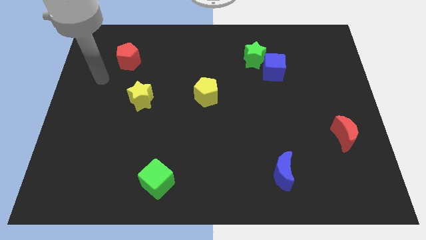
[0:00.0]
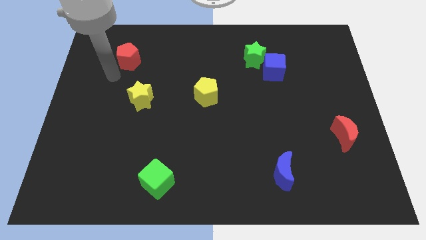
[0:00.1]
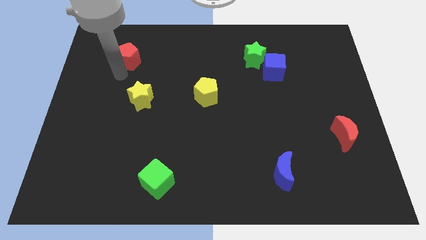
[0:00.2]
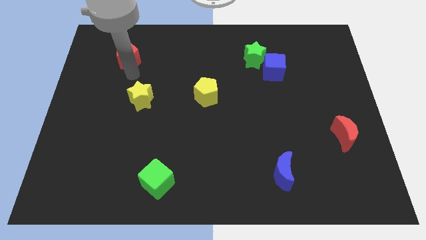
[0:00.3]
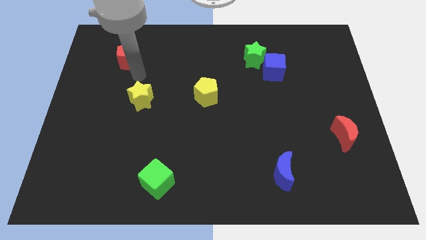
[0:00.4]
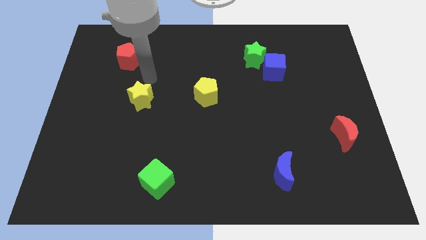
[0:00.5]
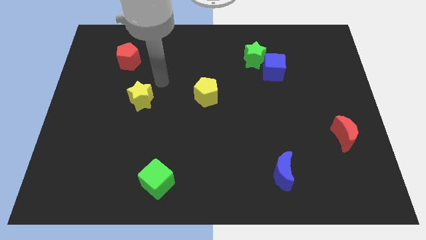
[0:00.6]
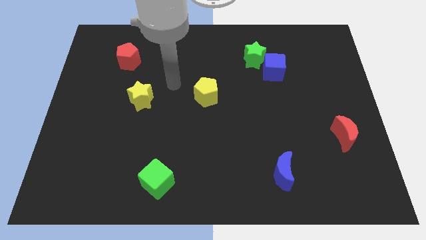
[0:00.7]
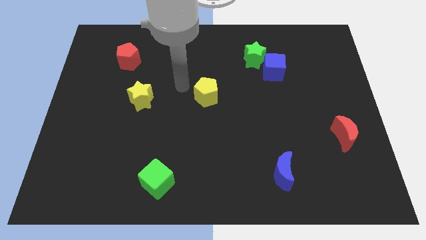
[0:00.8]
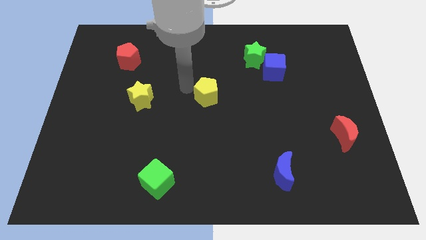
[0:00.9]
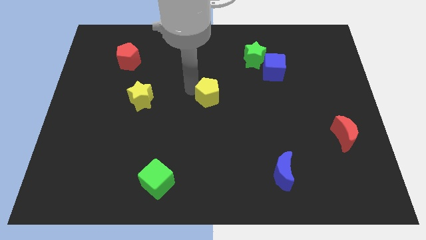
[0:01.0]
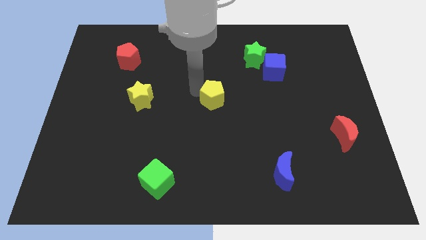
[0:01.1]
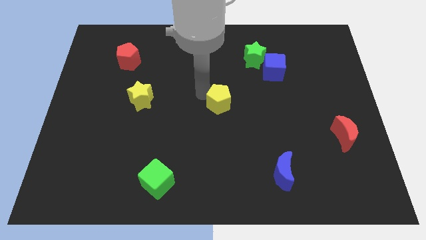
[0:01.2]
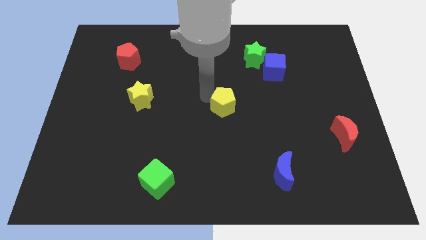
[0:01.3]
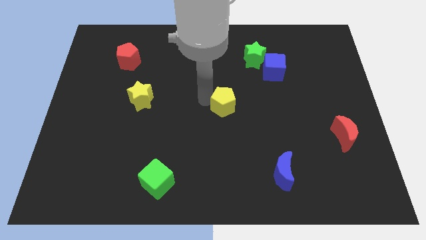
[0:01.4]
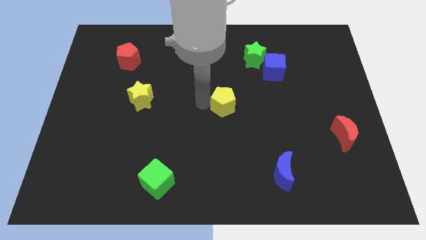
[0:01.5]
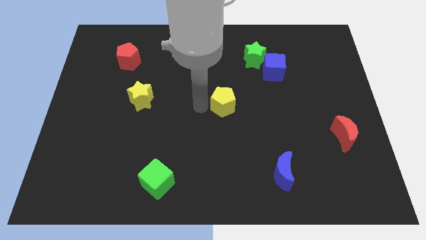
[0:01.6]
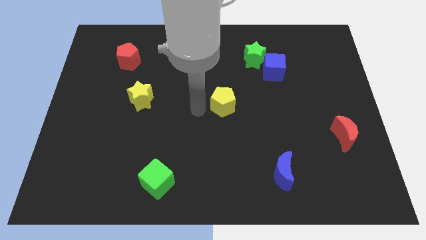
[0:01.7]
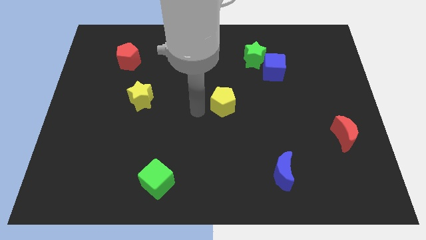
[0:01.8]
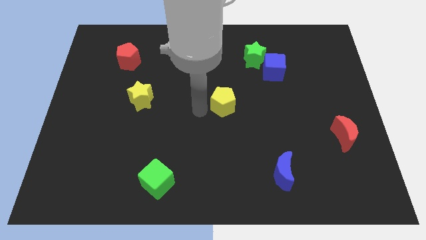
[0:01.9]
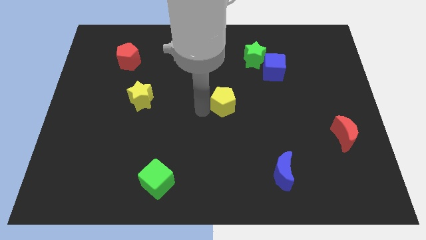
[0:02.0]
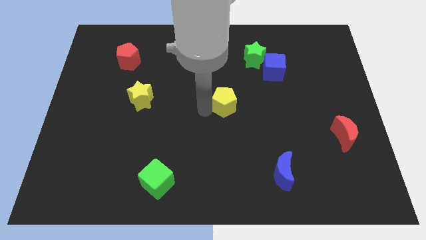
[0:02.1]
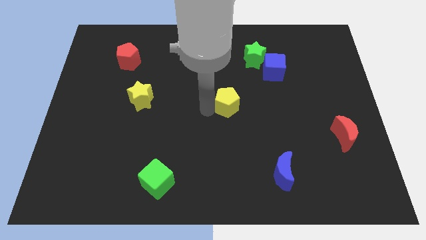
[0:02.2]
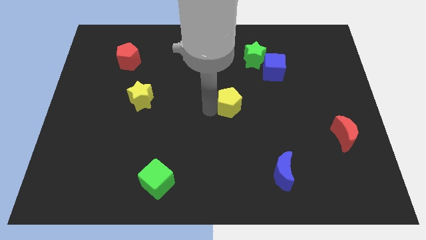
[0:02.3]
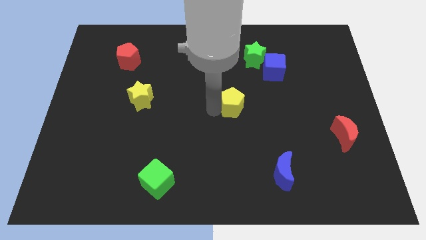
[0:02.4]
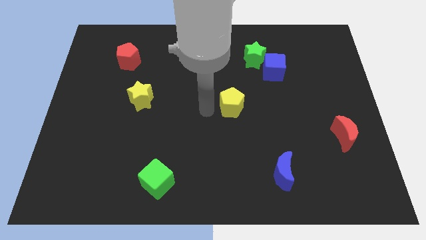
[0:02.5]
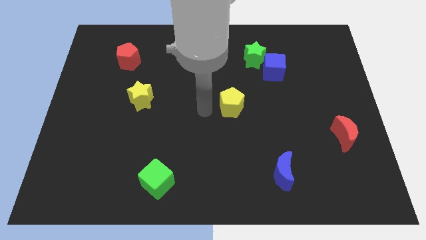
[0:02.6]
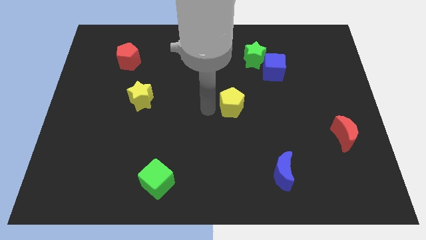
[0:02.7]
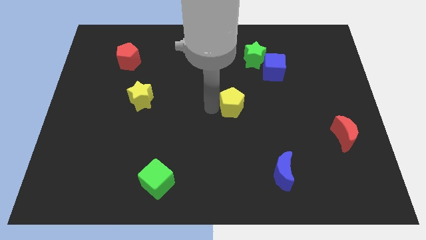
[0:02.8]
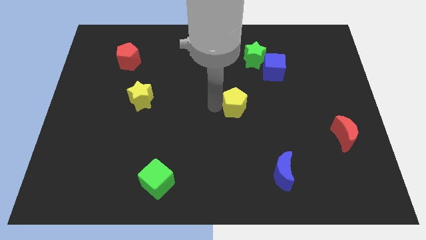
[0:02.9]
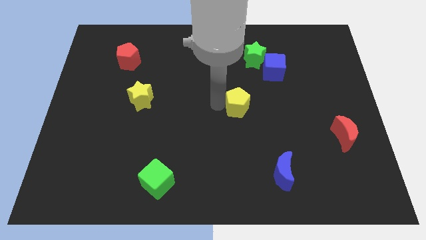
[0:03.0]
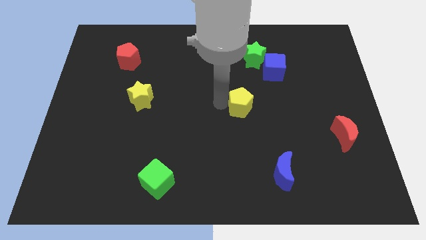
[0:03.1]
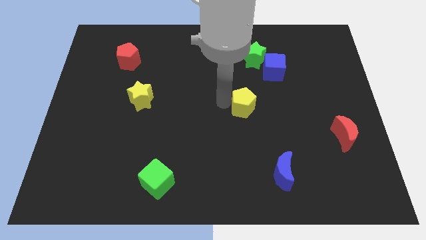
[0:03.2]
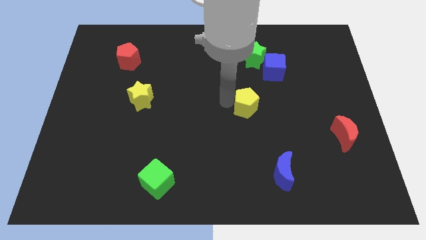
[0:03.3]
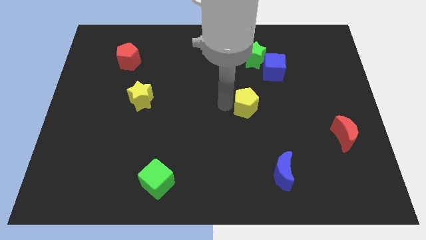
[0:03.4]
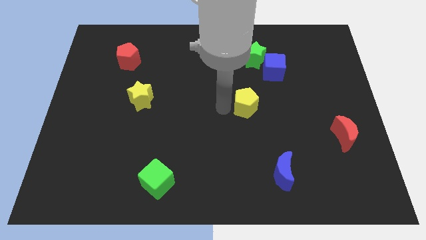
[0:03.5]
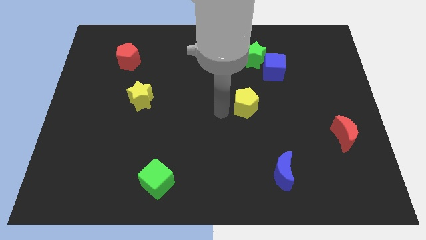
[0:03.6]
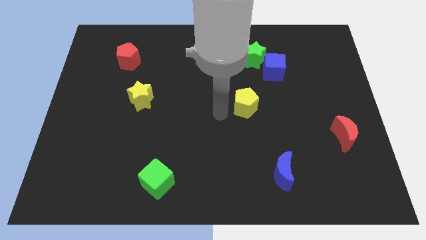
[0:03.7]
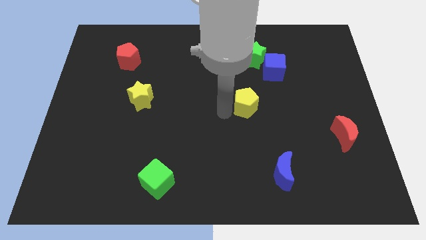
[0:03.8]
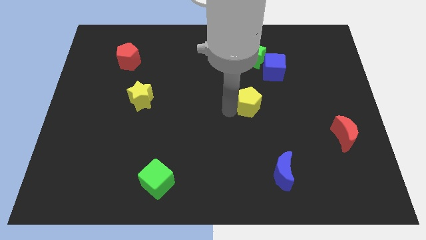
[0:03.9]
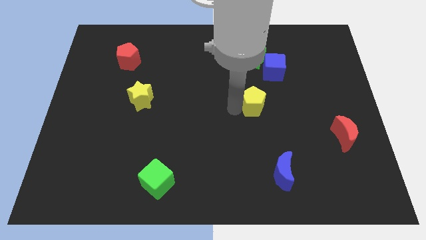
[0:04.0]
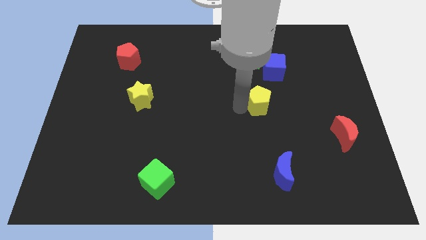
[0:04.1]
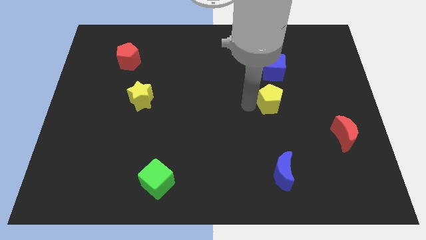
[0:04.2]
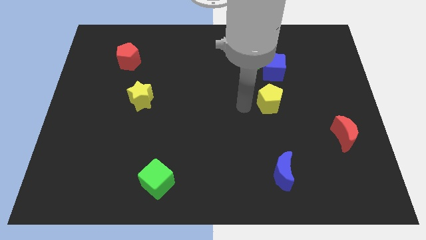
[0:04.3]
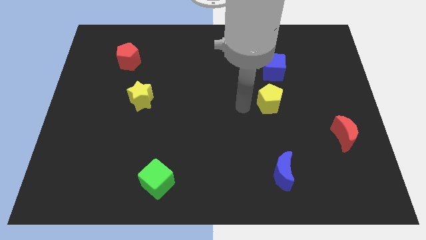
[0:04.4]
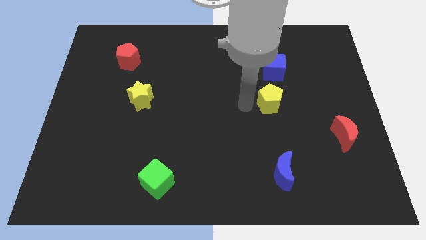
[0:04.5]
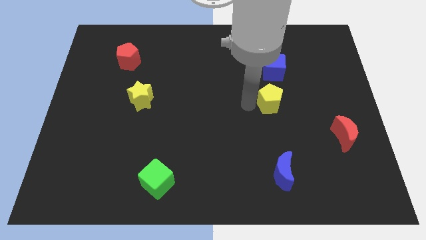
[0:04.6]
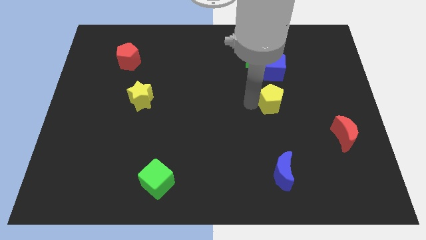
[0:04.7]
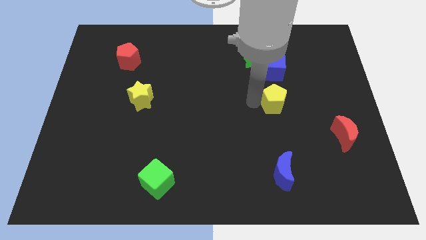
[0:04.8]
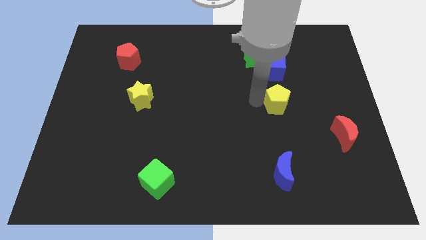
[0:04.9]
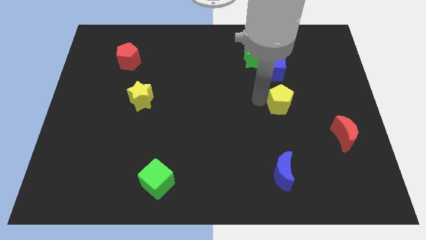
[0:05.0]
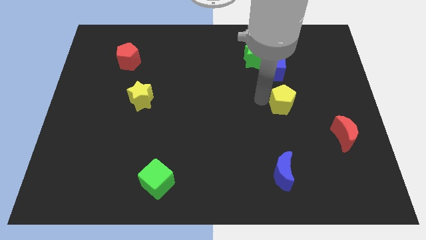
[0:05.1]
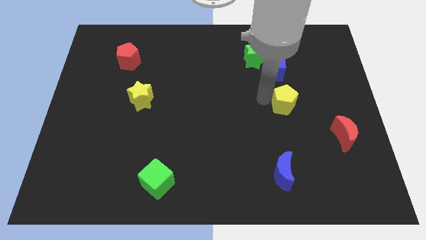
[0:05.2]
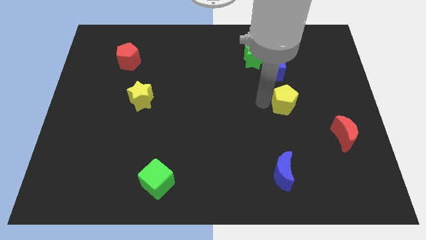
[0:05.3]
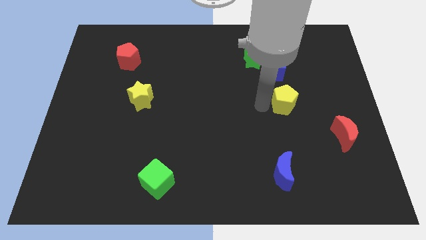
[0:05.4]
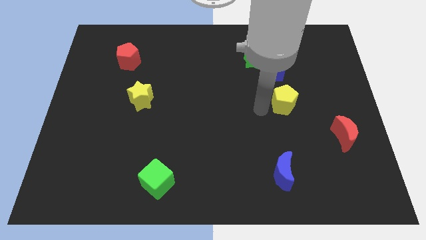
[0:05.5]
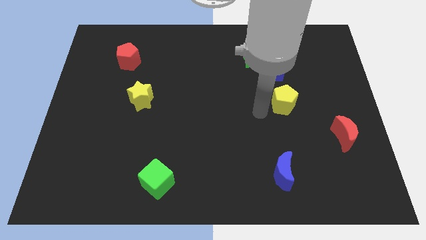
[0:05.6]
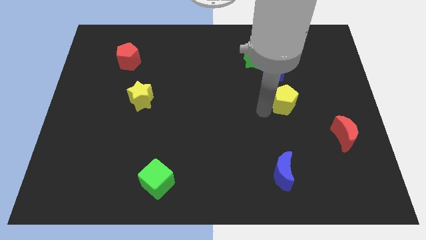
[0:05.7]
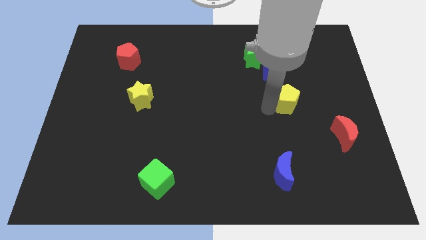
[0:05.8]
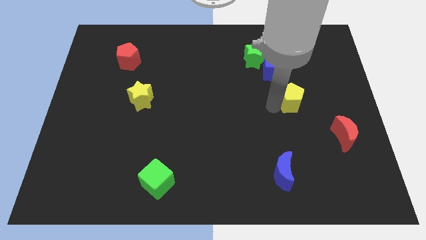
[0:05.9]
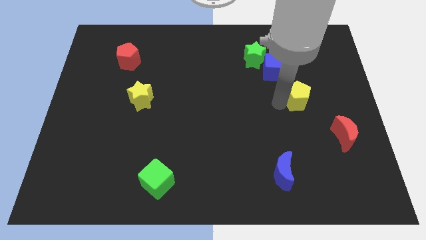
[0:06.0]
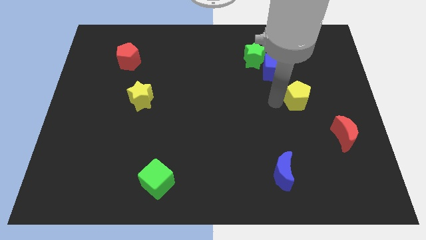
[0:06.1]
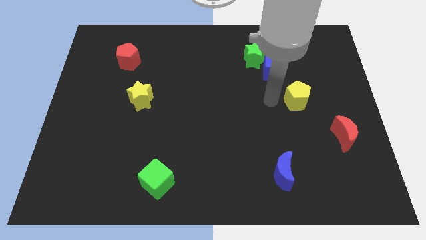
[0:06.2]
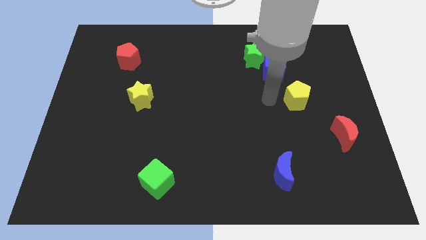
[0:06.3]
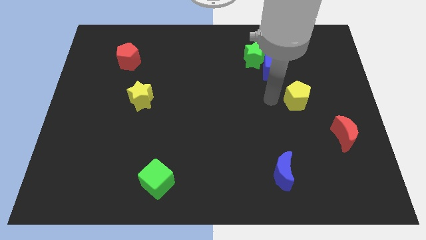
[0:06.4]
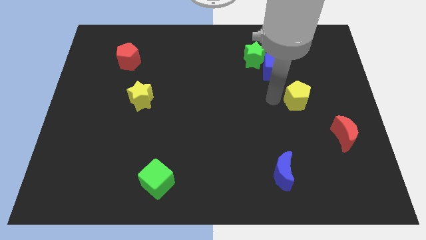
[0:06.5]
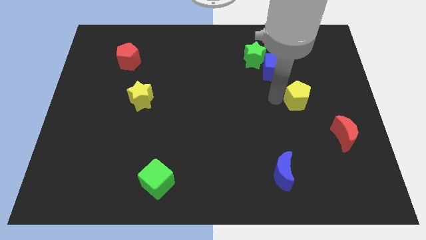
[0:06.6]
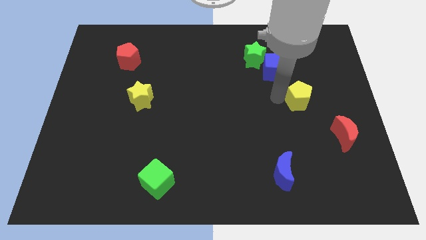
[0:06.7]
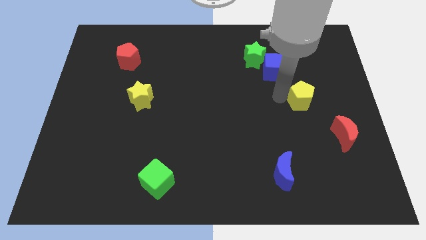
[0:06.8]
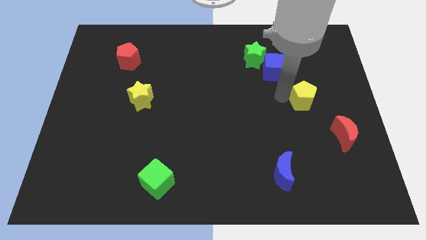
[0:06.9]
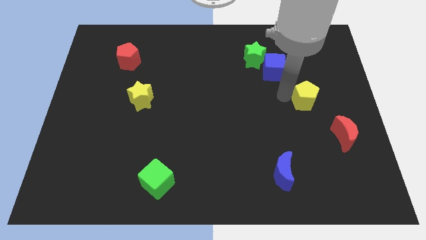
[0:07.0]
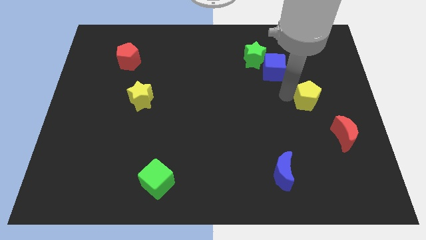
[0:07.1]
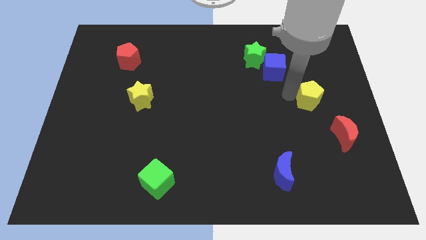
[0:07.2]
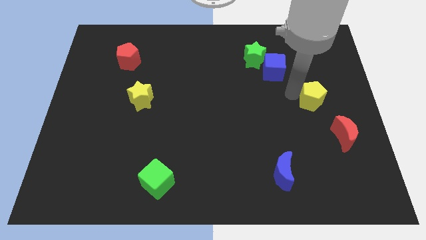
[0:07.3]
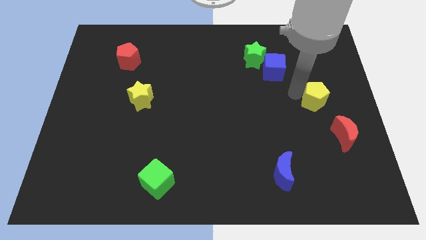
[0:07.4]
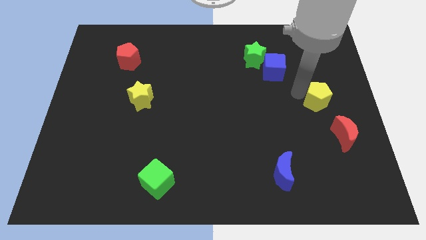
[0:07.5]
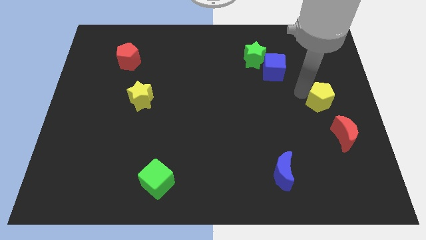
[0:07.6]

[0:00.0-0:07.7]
push the yellow pentagon to the right side of the board
